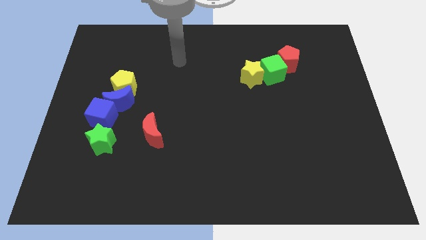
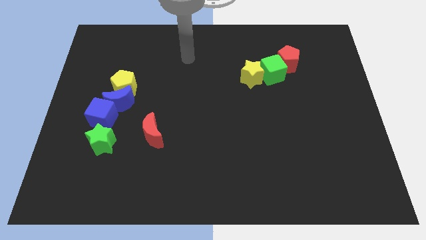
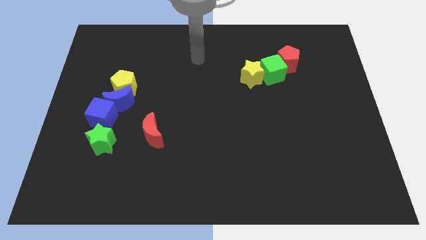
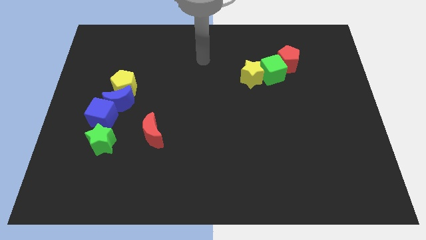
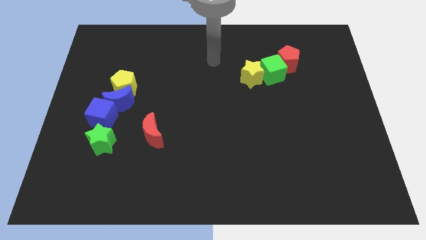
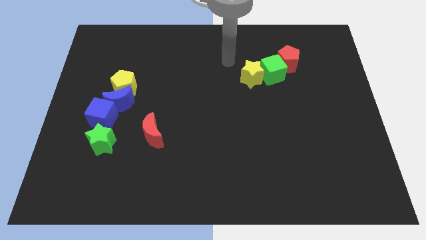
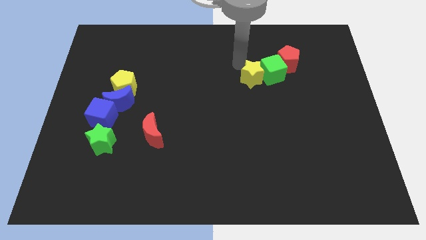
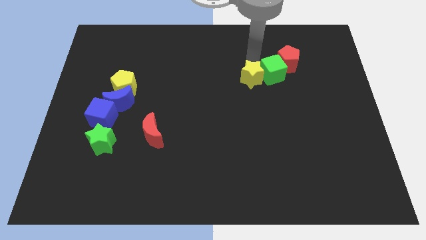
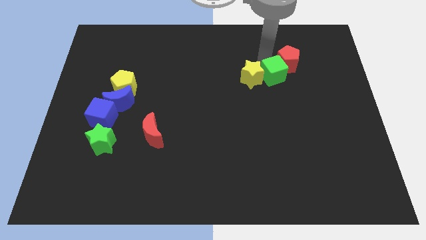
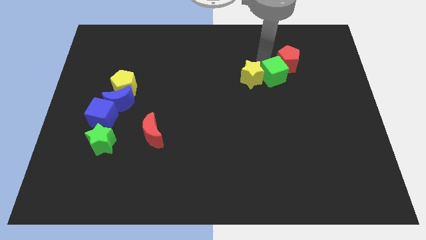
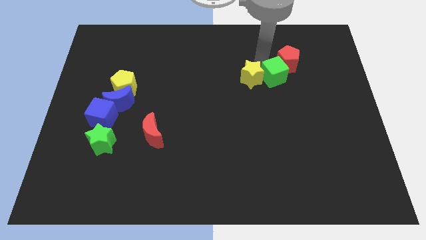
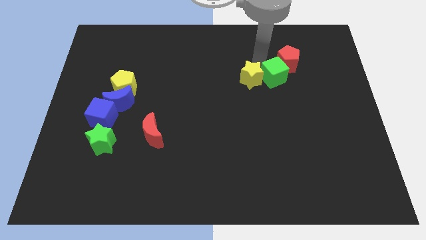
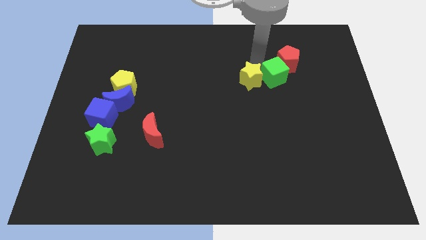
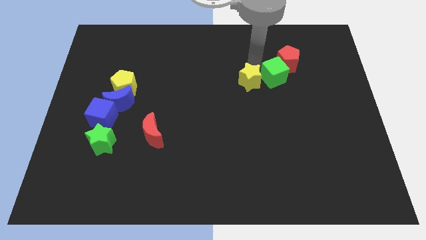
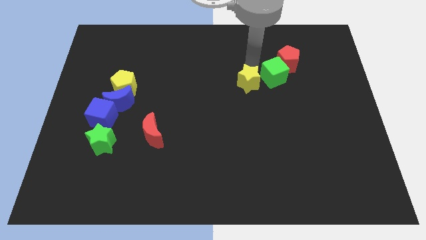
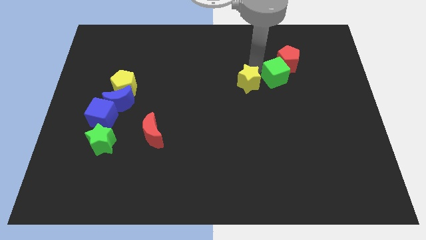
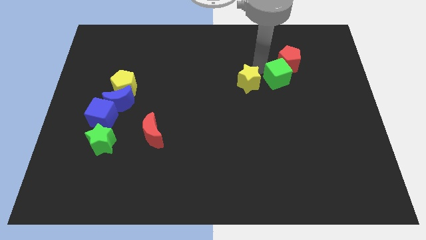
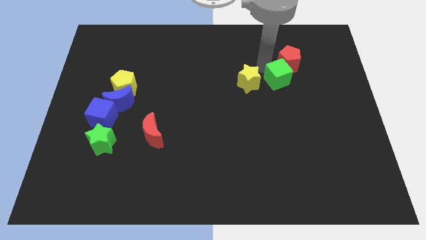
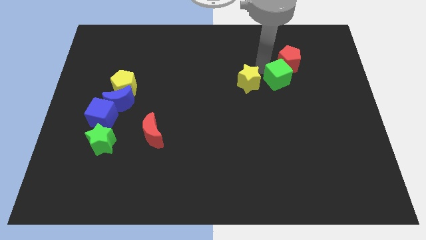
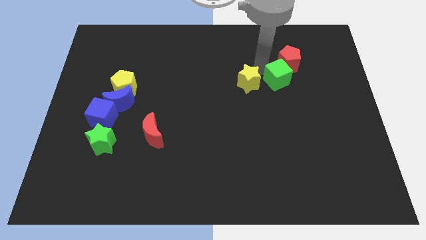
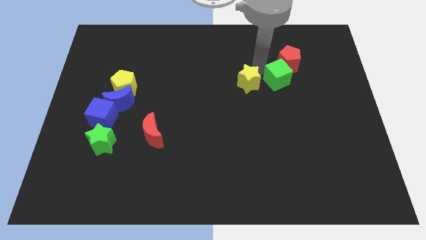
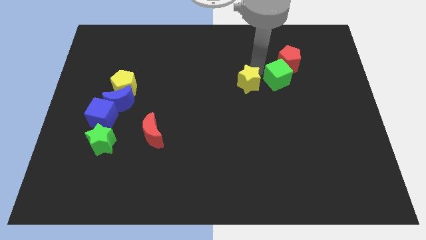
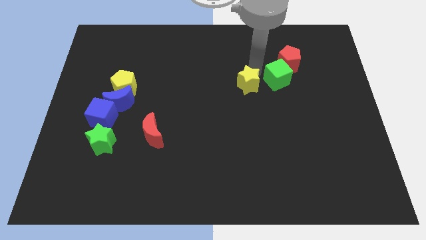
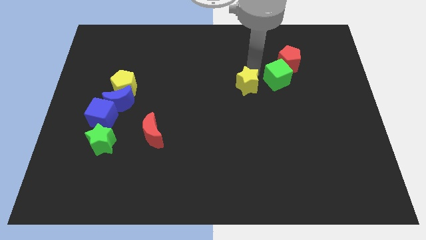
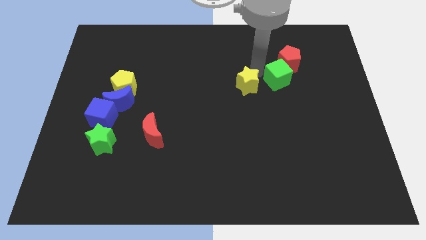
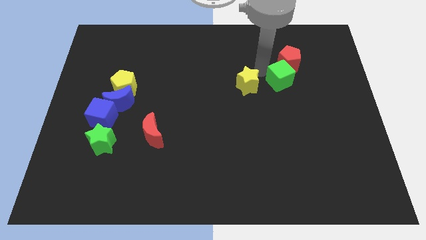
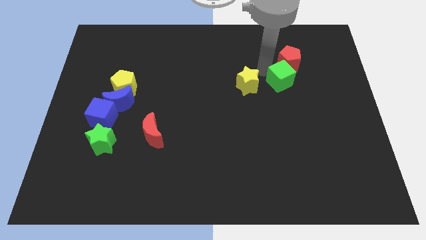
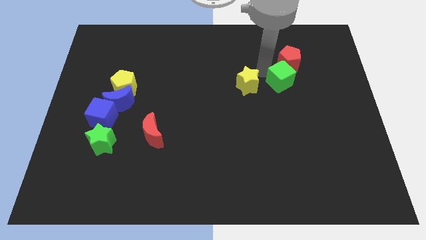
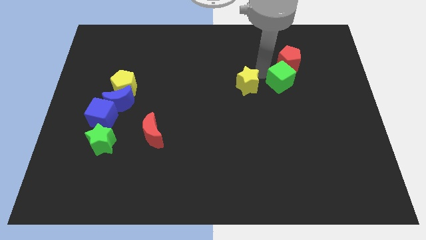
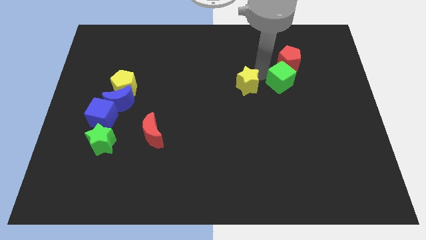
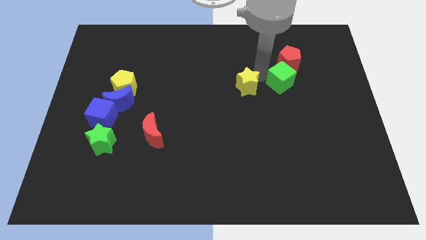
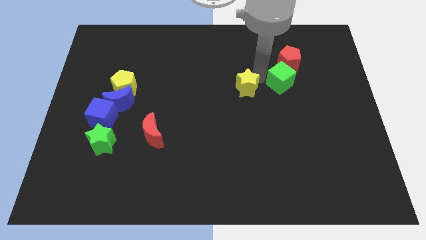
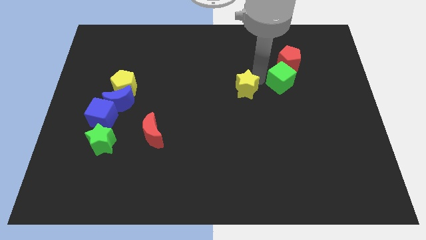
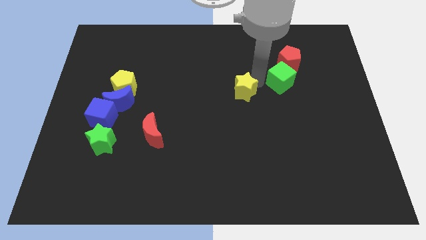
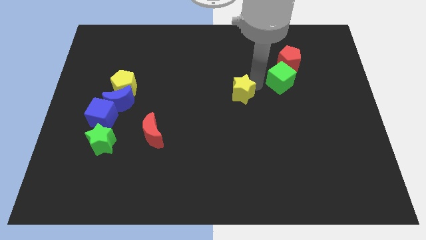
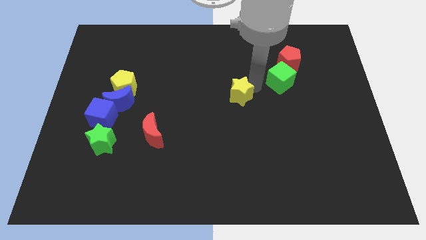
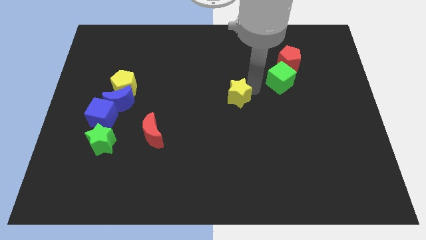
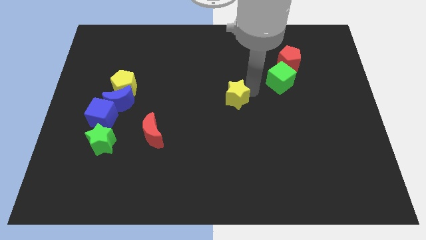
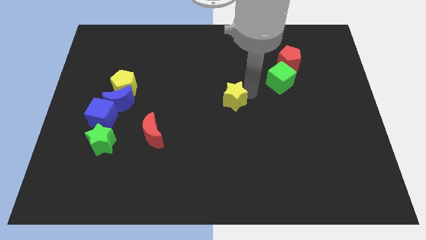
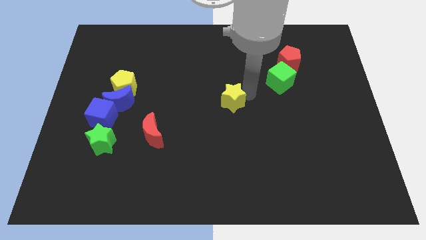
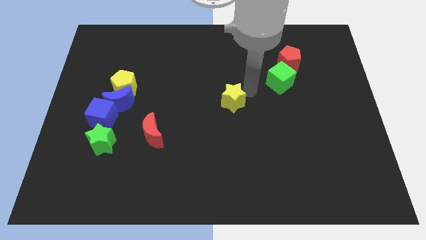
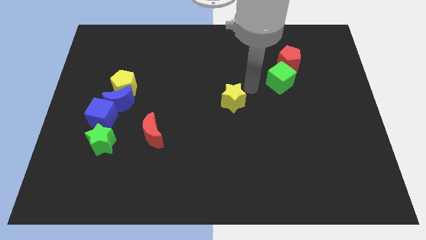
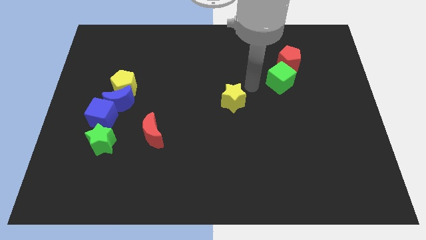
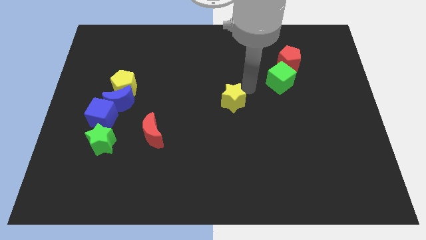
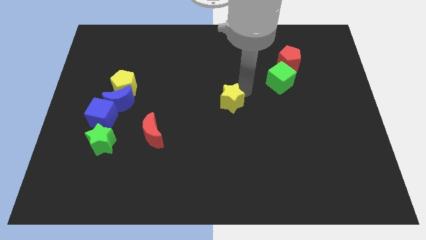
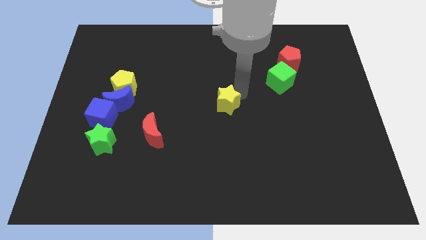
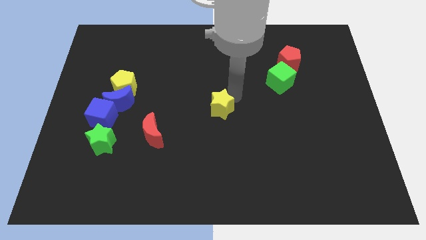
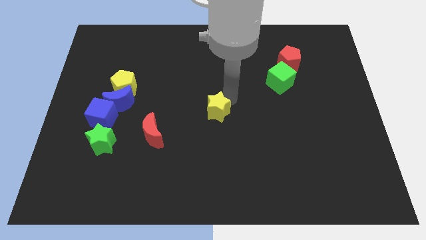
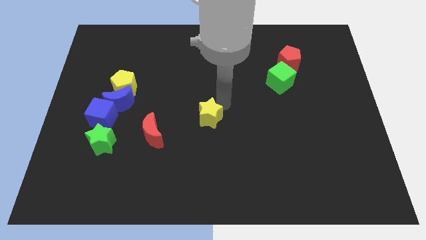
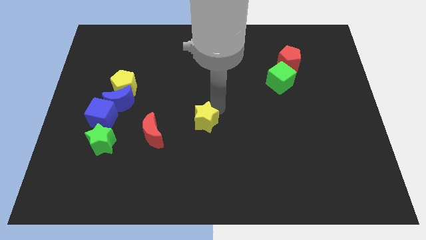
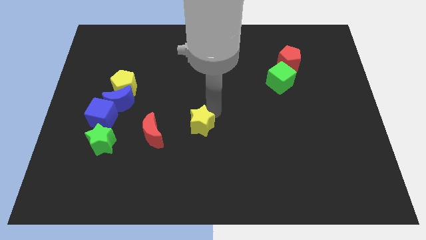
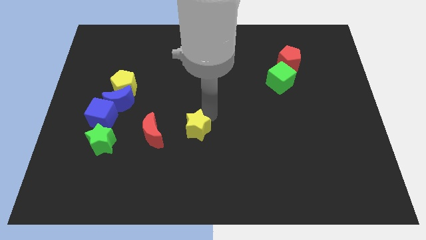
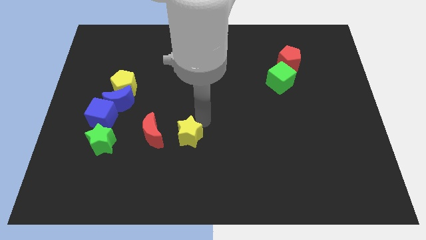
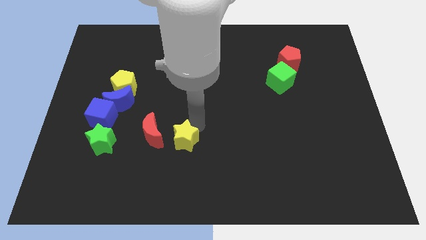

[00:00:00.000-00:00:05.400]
move the yellow star diagonally down and to the right of the red moon

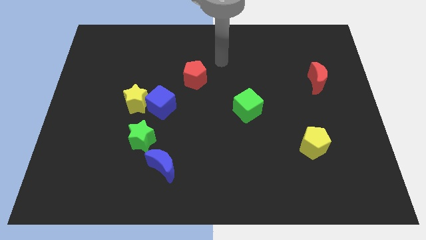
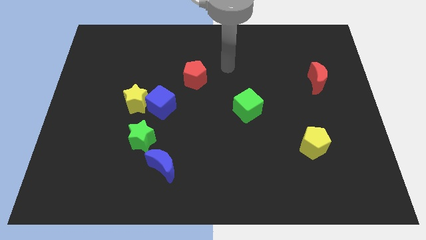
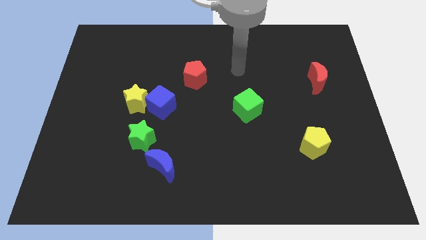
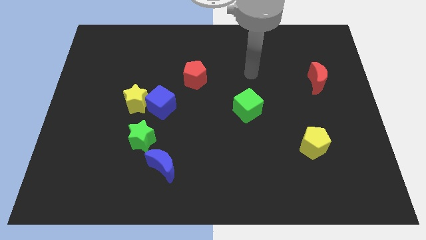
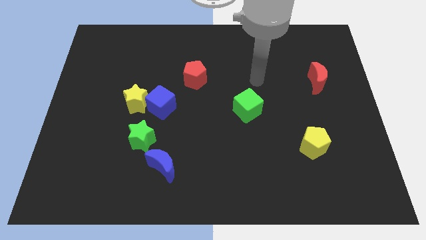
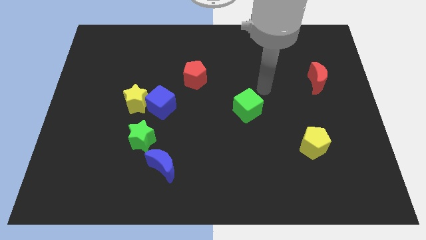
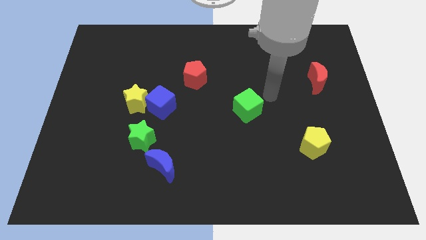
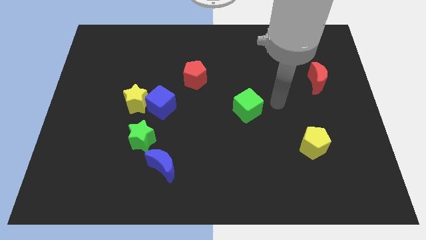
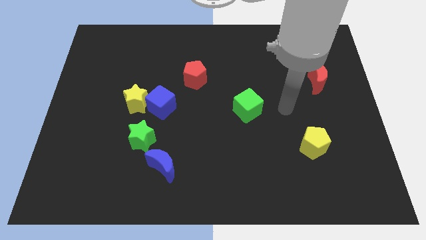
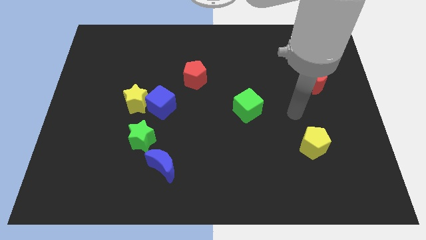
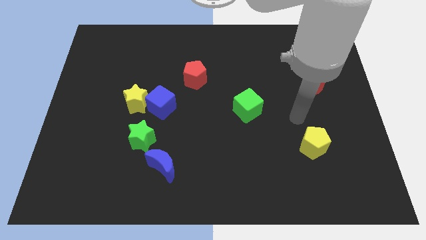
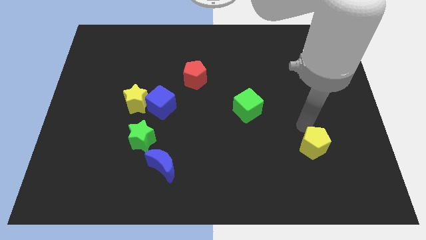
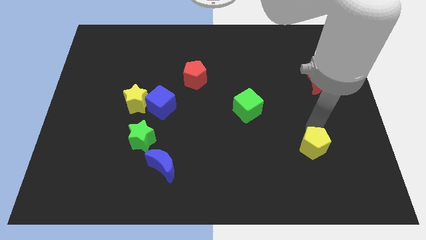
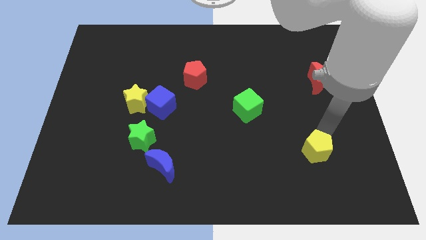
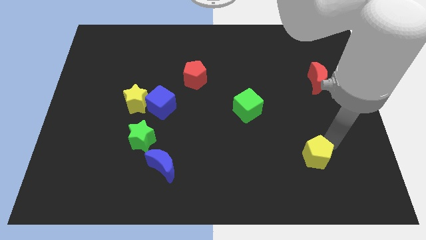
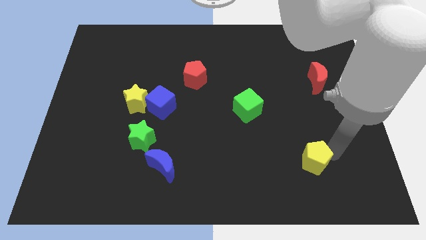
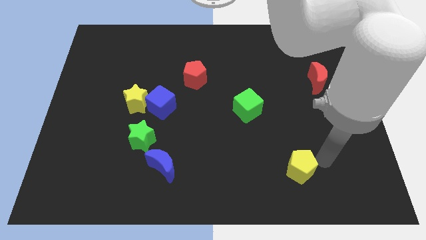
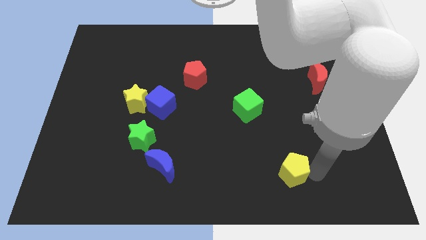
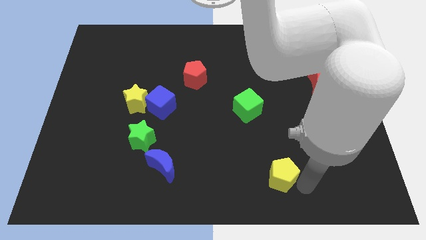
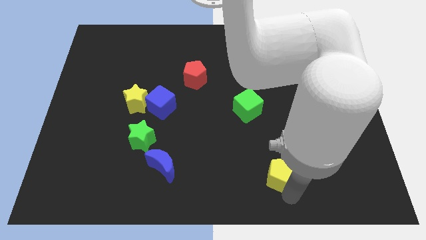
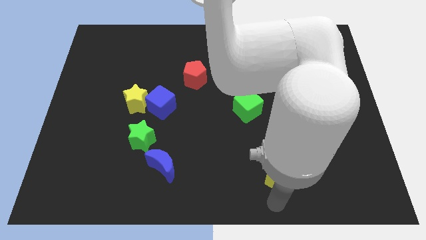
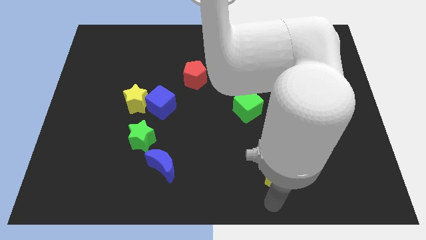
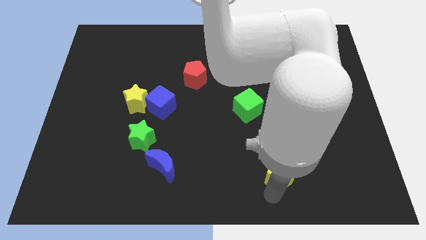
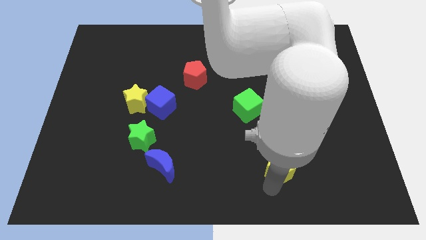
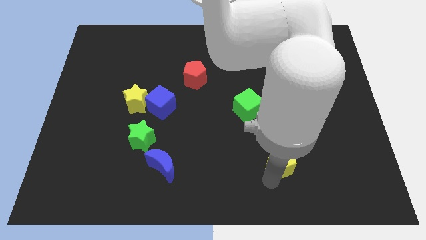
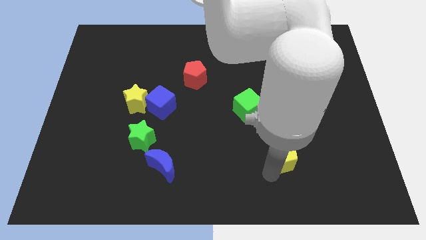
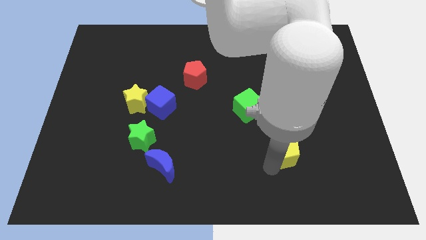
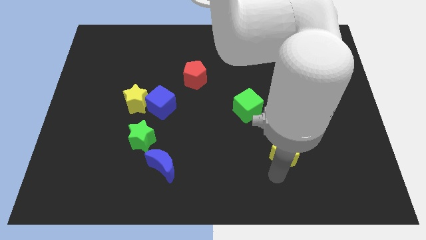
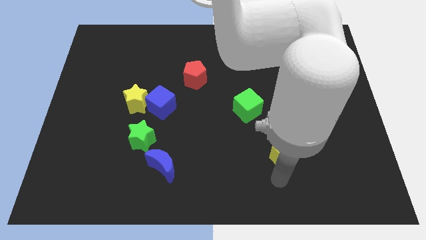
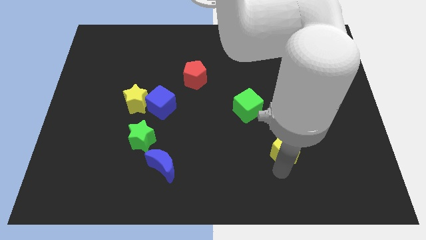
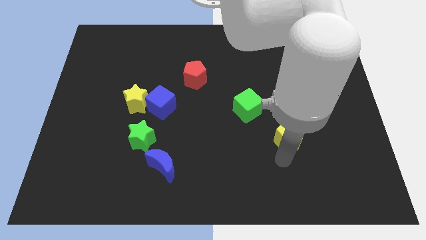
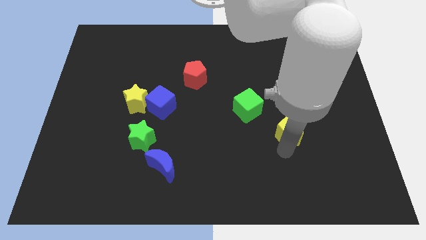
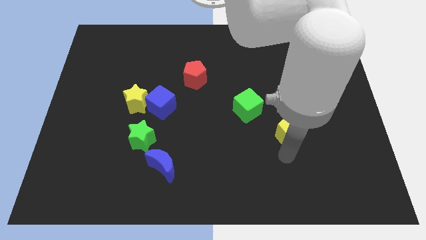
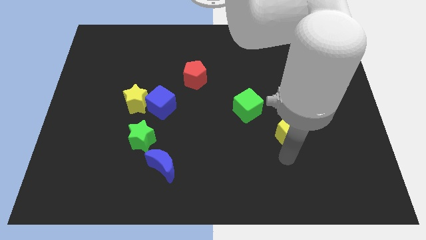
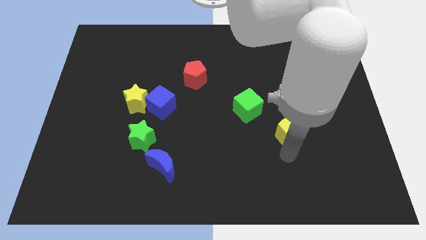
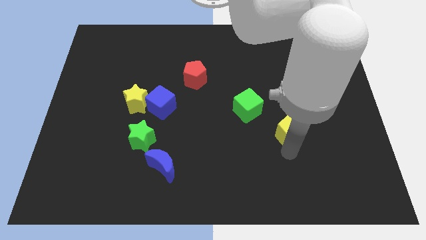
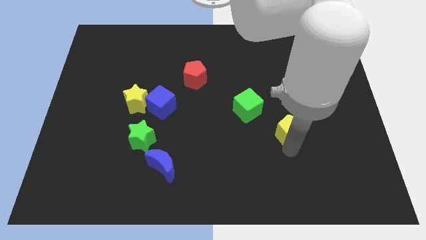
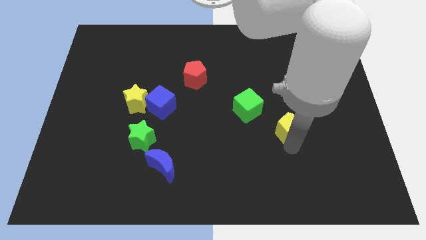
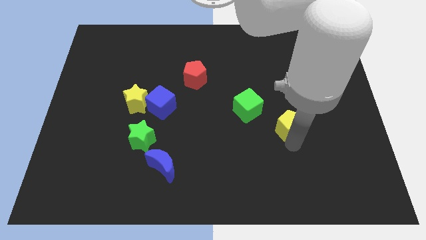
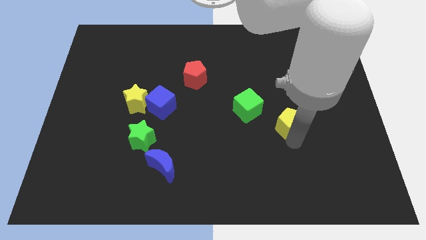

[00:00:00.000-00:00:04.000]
put the yellow pentagon to the right of the green cube
